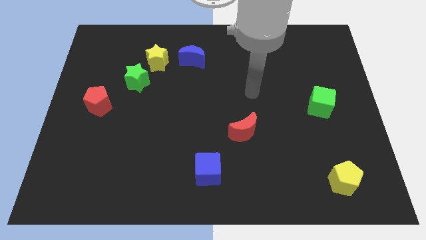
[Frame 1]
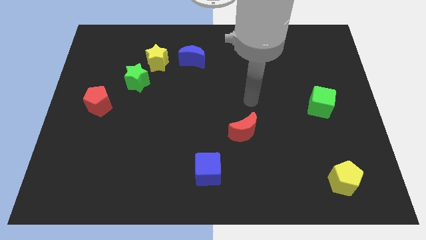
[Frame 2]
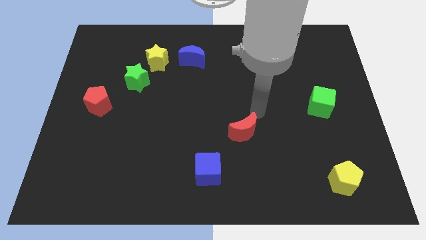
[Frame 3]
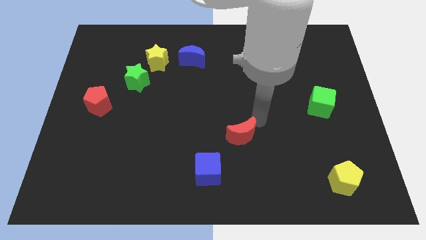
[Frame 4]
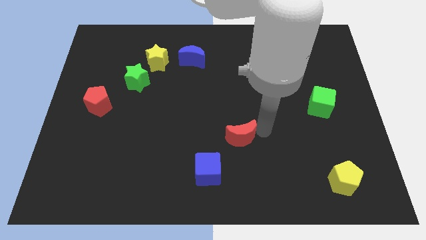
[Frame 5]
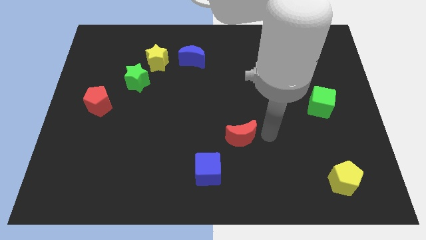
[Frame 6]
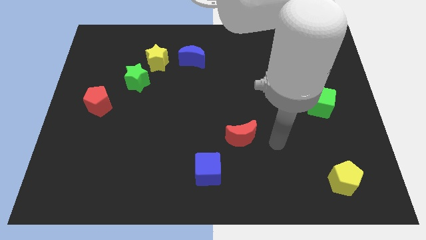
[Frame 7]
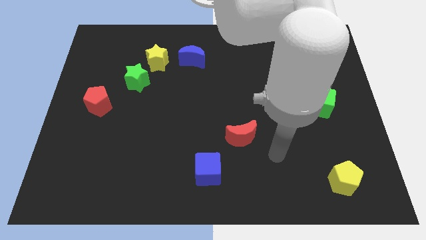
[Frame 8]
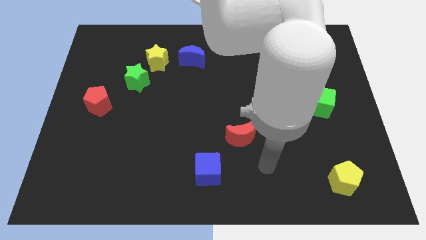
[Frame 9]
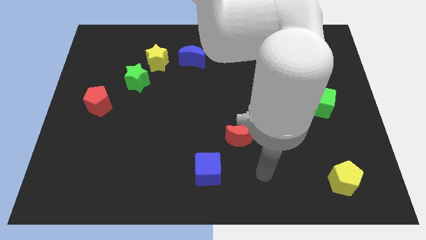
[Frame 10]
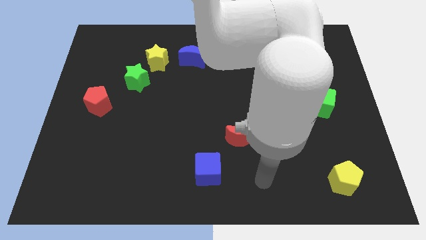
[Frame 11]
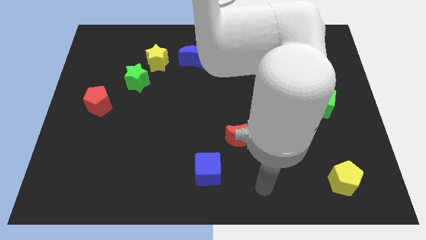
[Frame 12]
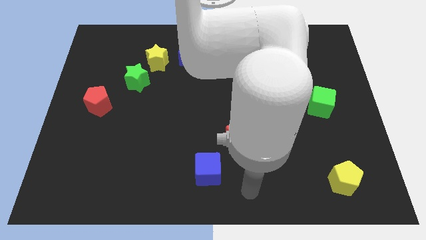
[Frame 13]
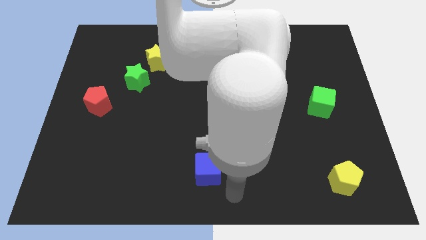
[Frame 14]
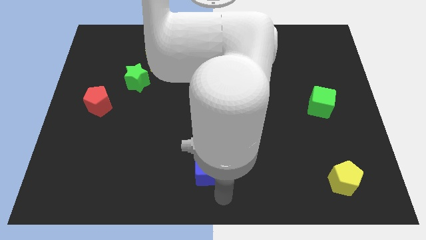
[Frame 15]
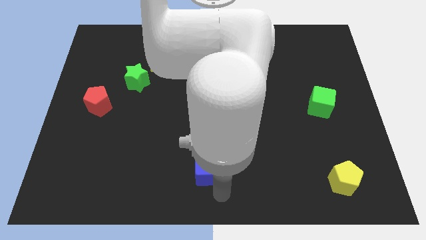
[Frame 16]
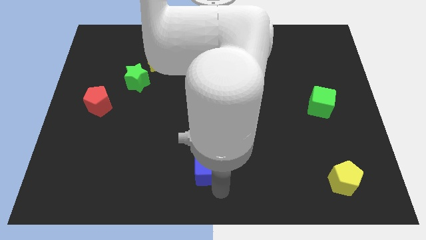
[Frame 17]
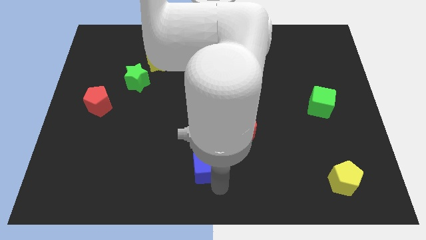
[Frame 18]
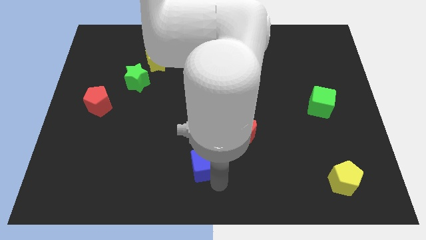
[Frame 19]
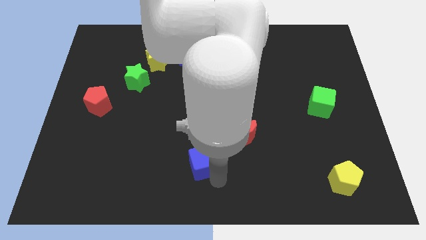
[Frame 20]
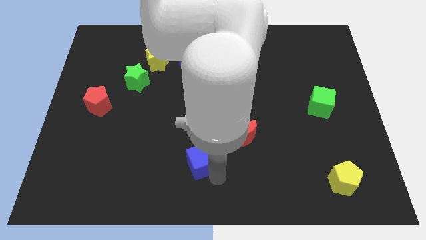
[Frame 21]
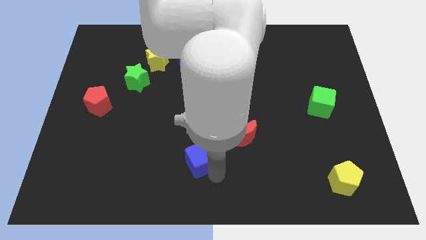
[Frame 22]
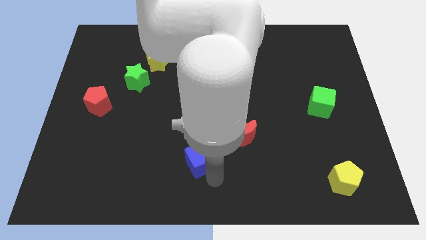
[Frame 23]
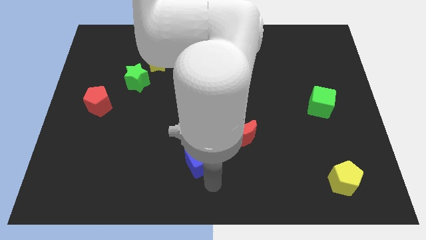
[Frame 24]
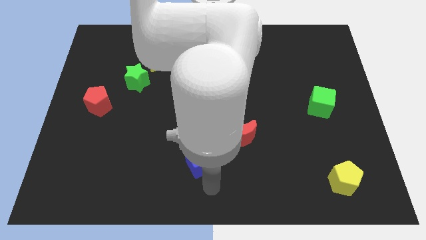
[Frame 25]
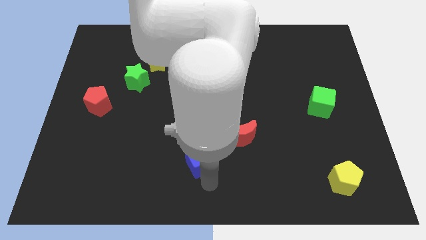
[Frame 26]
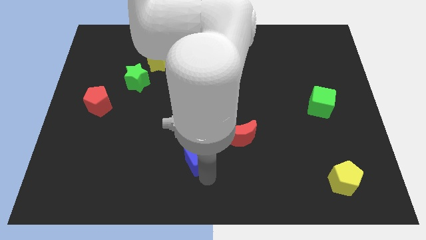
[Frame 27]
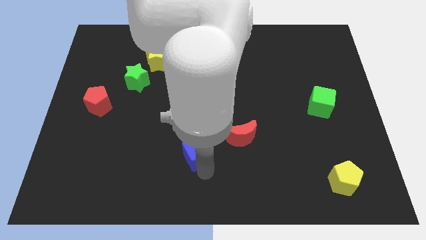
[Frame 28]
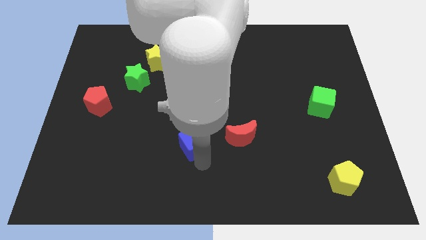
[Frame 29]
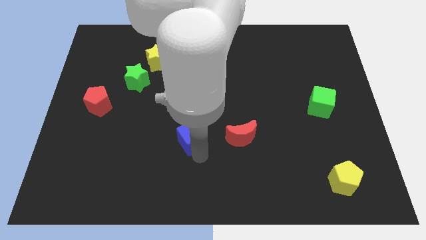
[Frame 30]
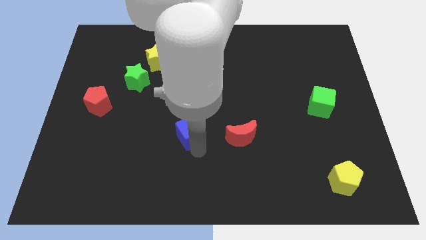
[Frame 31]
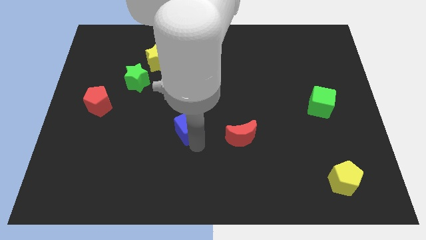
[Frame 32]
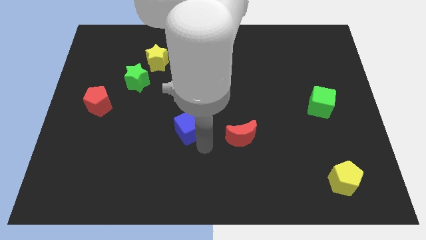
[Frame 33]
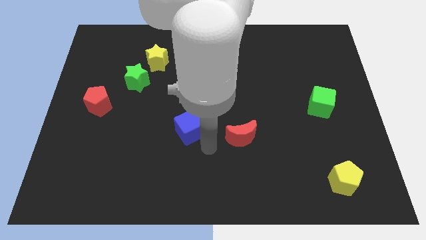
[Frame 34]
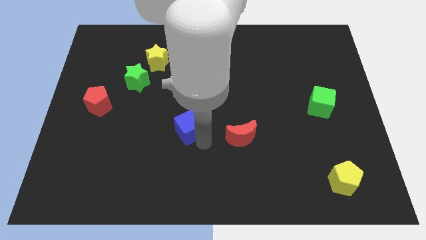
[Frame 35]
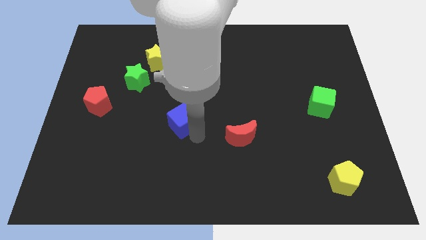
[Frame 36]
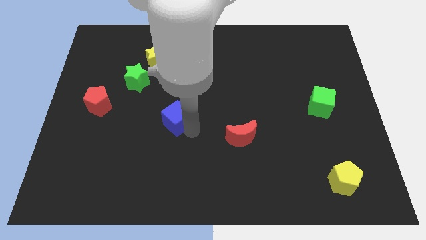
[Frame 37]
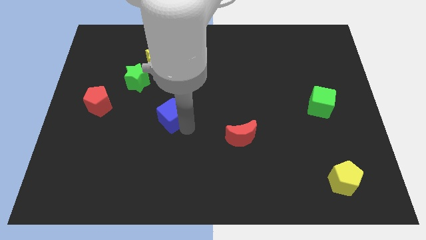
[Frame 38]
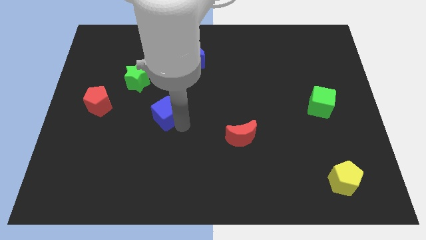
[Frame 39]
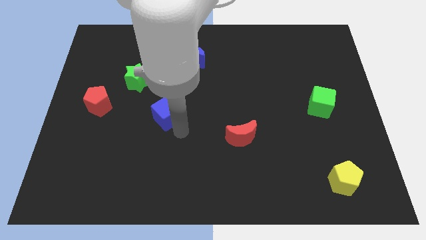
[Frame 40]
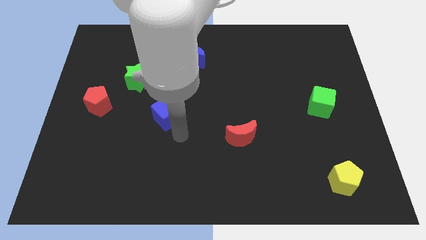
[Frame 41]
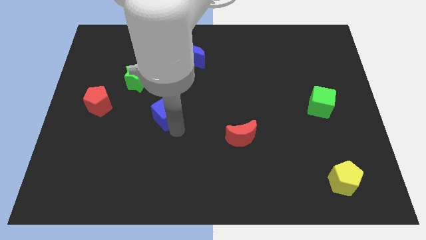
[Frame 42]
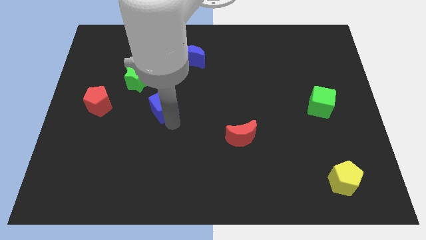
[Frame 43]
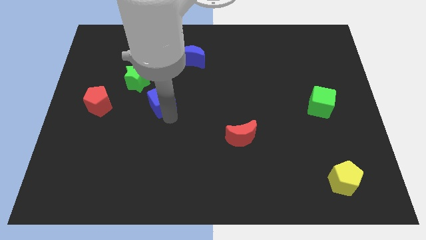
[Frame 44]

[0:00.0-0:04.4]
put the blue cube to the bottom of the yellow star

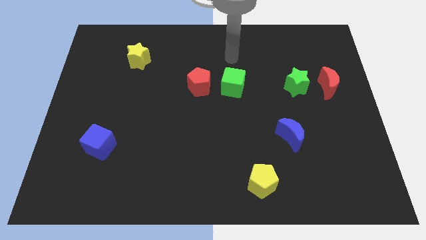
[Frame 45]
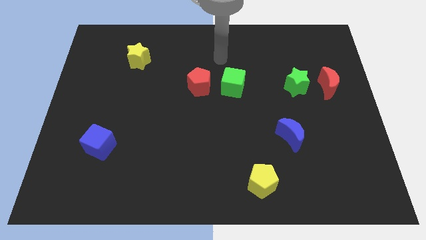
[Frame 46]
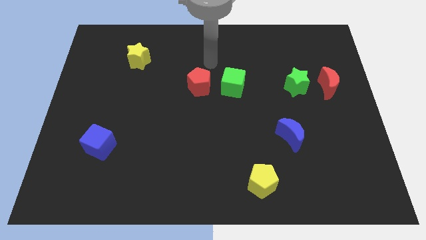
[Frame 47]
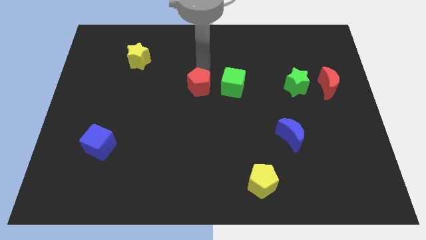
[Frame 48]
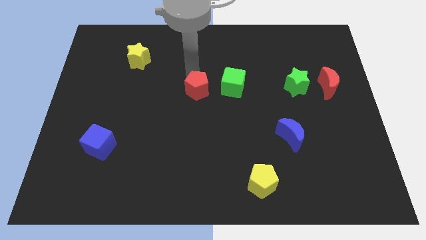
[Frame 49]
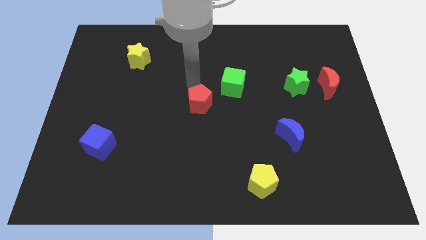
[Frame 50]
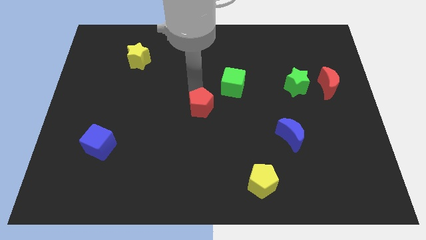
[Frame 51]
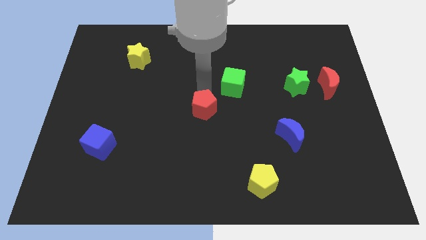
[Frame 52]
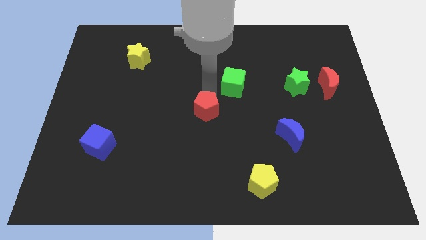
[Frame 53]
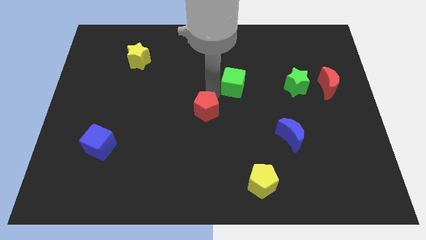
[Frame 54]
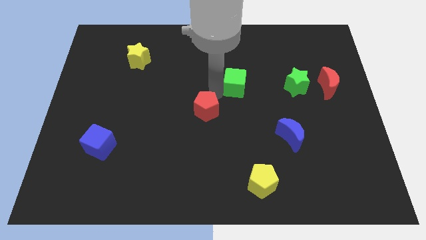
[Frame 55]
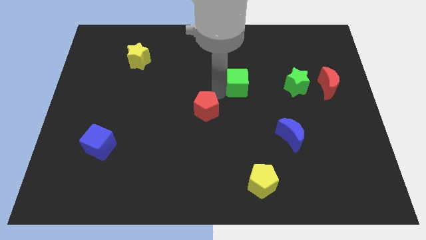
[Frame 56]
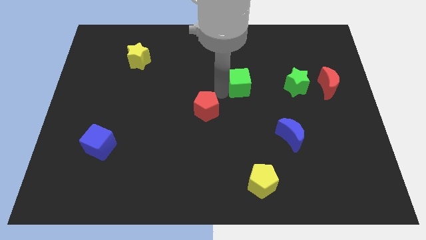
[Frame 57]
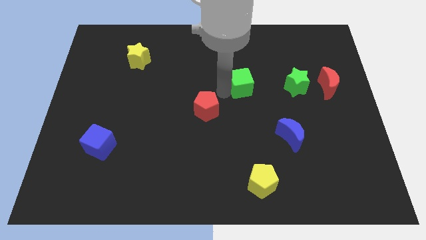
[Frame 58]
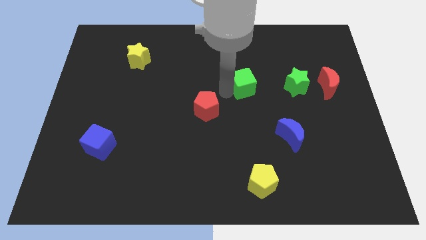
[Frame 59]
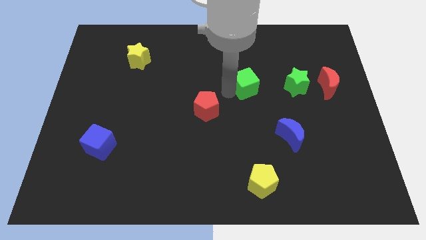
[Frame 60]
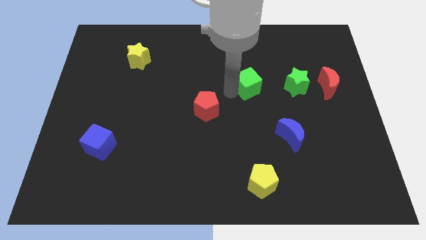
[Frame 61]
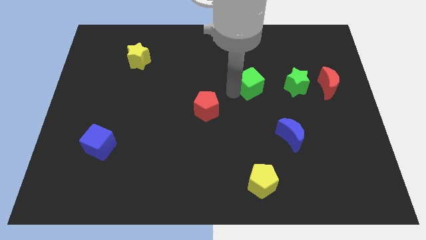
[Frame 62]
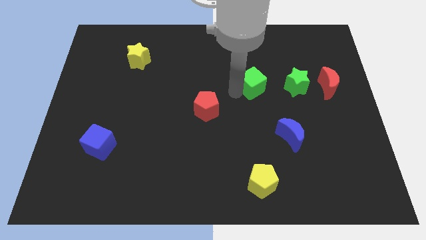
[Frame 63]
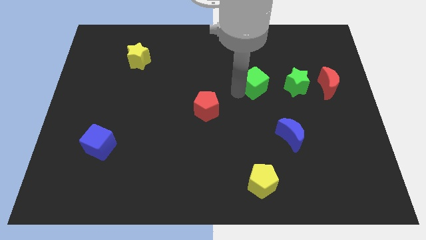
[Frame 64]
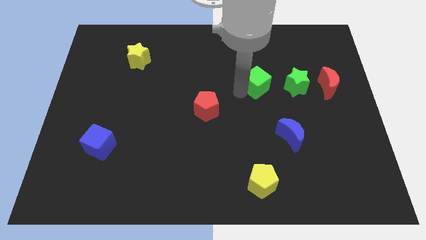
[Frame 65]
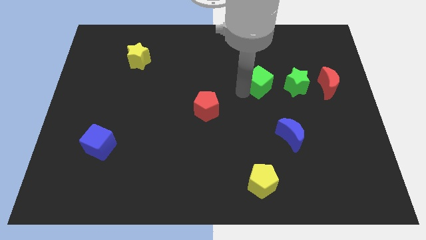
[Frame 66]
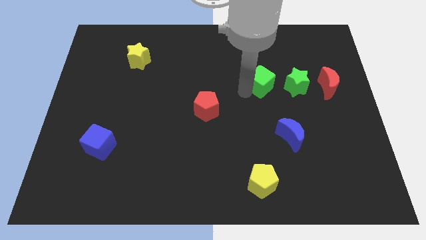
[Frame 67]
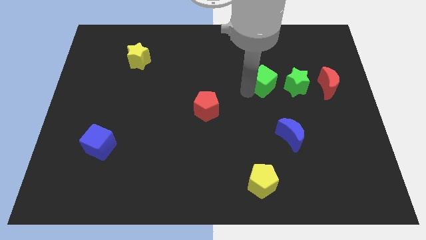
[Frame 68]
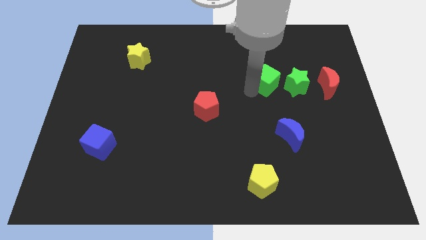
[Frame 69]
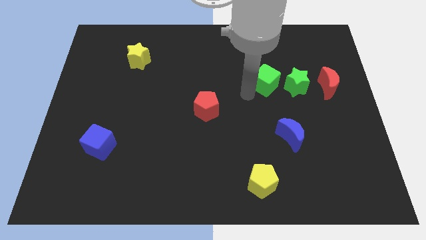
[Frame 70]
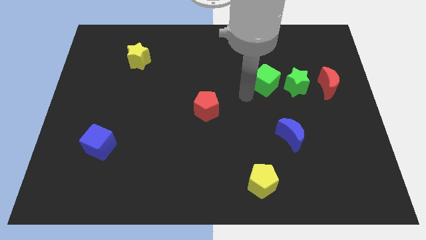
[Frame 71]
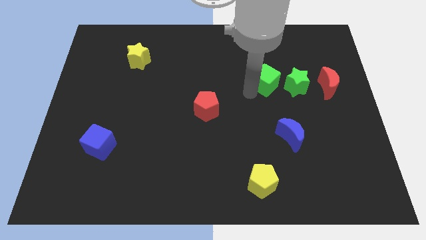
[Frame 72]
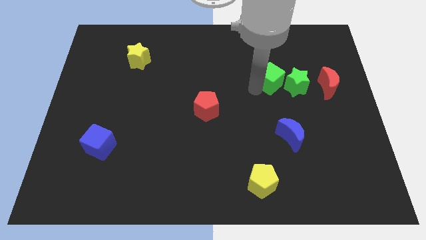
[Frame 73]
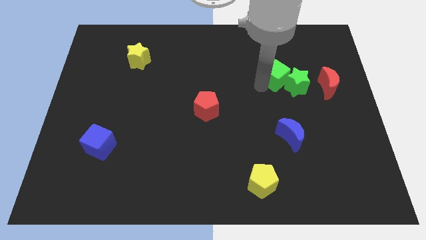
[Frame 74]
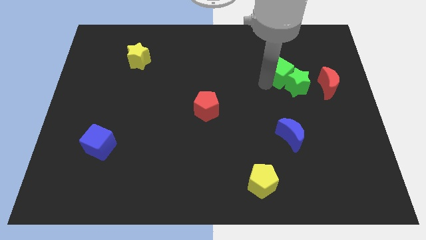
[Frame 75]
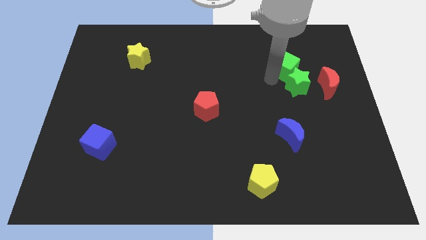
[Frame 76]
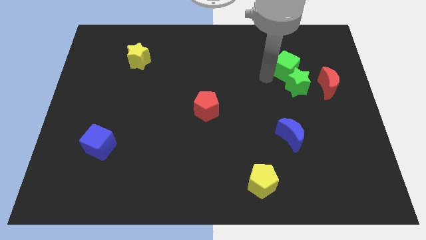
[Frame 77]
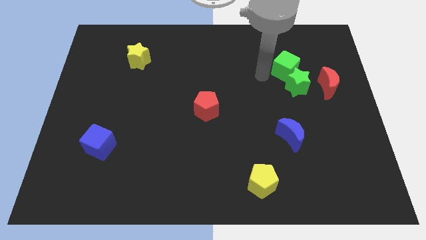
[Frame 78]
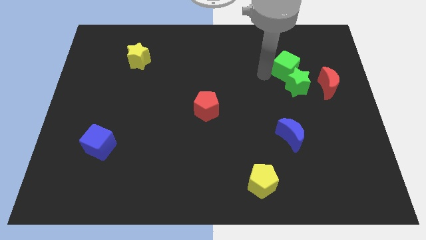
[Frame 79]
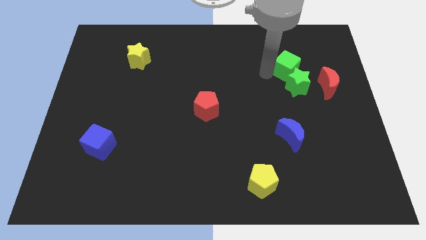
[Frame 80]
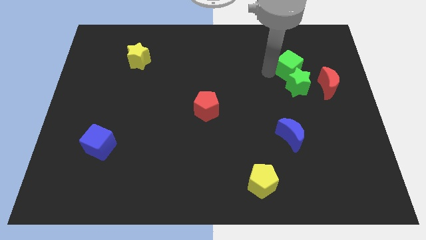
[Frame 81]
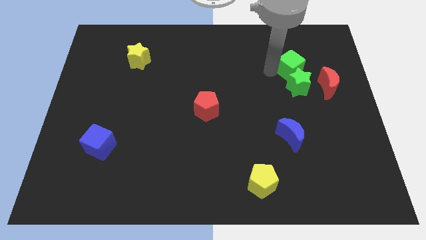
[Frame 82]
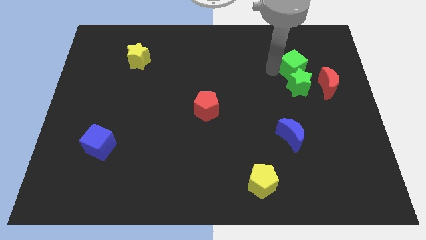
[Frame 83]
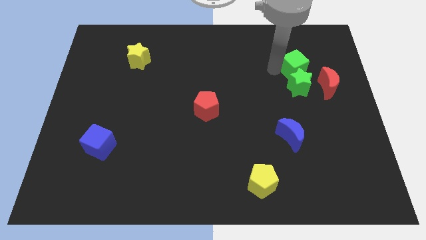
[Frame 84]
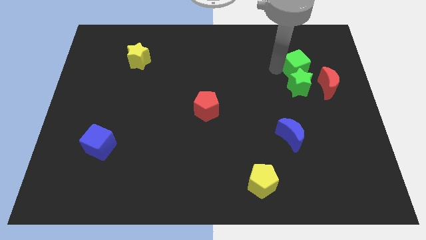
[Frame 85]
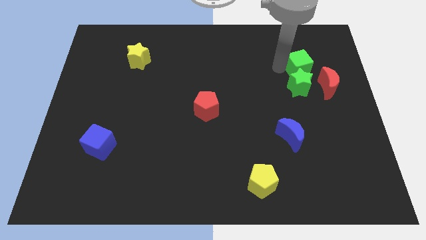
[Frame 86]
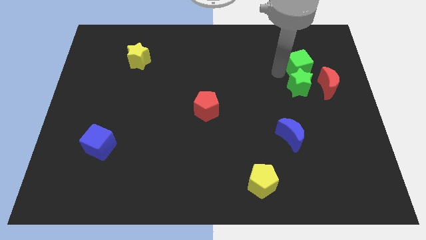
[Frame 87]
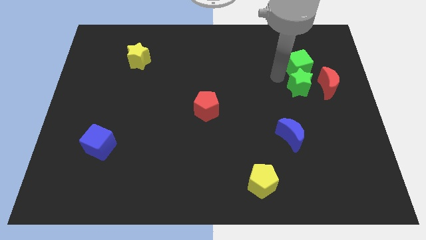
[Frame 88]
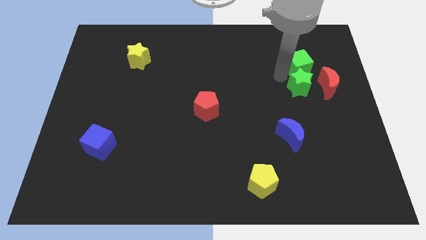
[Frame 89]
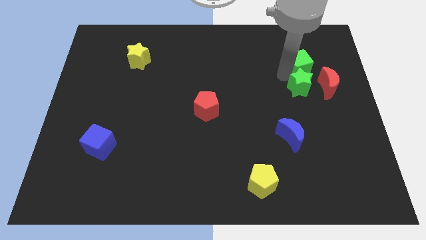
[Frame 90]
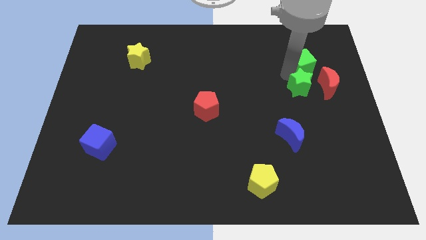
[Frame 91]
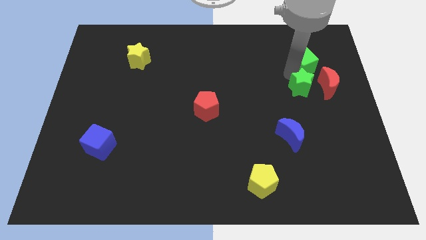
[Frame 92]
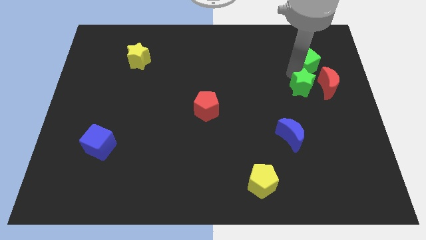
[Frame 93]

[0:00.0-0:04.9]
move the green cube to the top of the red moon
